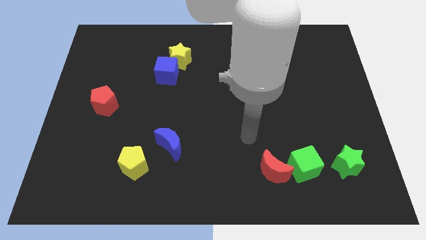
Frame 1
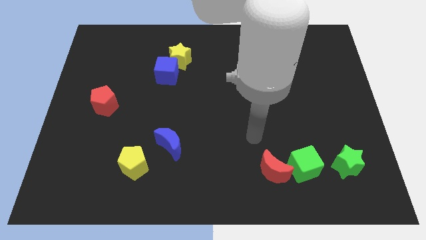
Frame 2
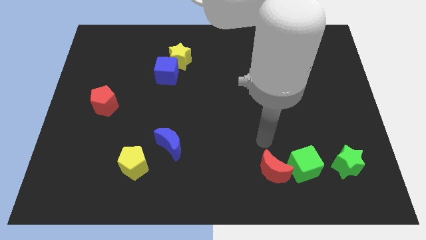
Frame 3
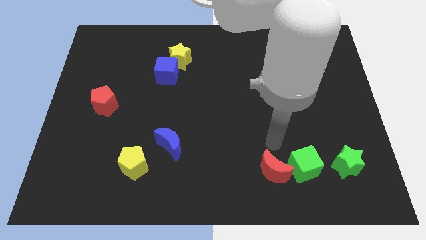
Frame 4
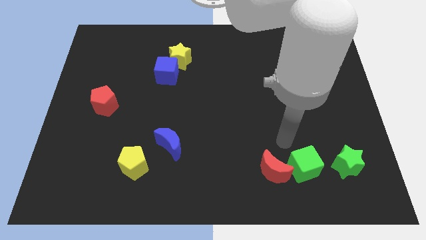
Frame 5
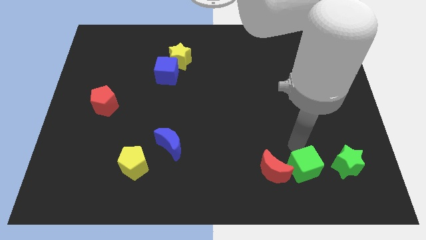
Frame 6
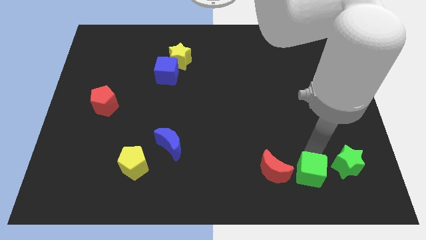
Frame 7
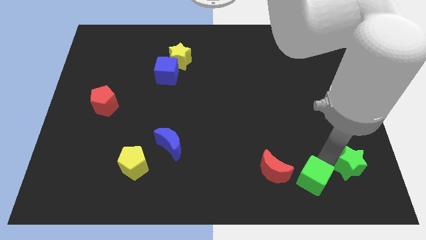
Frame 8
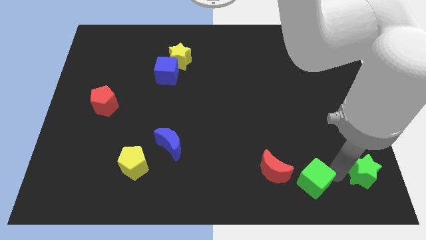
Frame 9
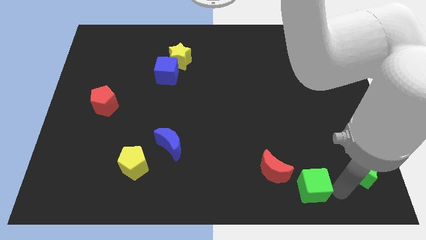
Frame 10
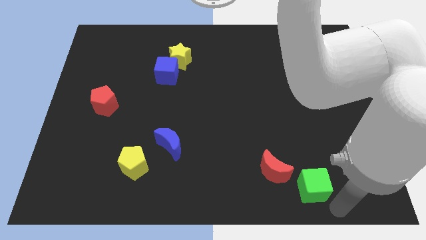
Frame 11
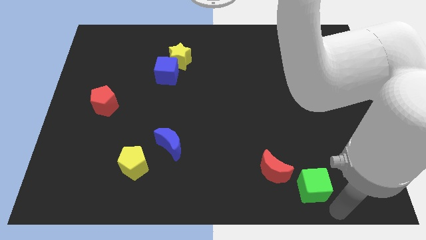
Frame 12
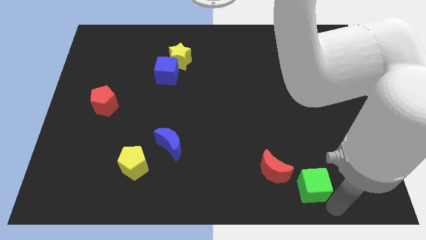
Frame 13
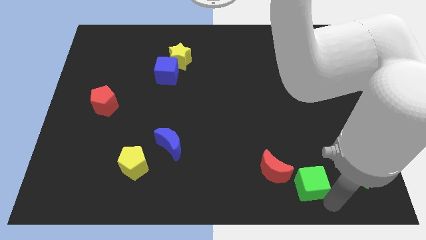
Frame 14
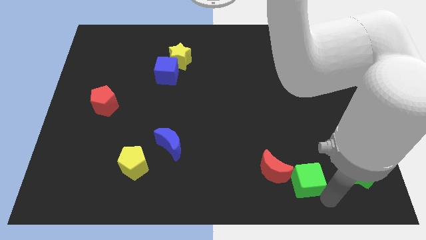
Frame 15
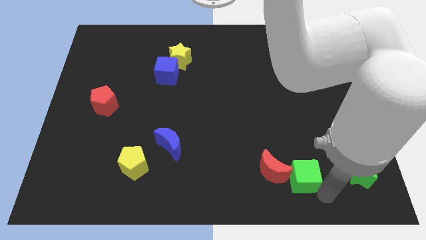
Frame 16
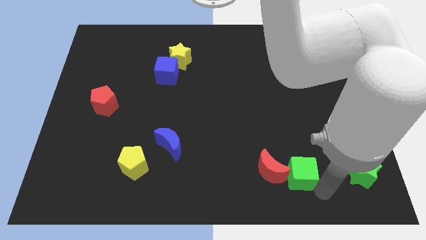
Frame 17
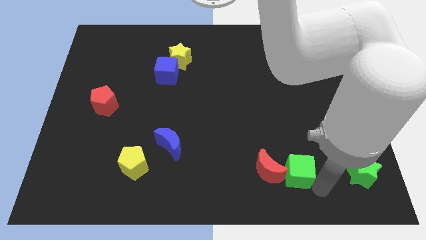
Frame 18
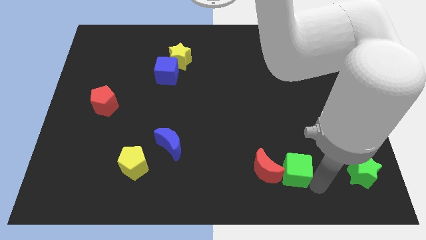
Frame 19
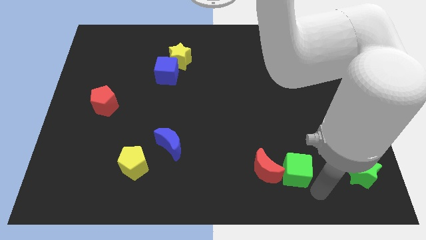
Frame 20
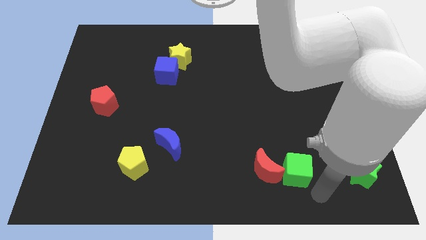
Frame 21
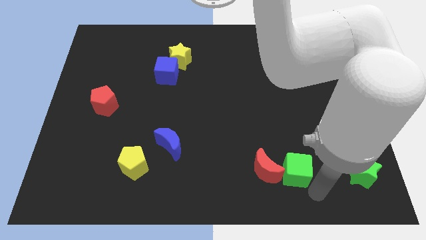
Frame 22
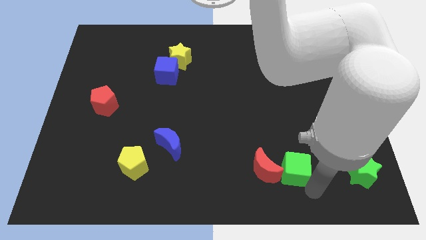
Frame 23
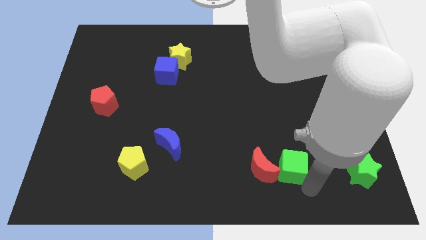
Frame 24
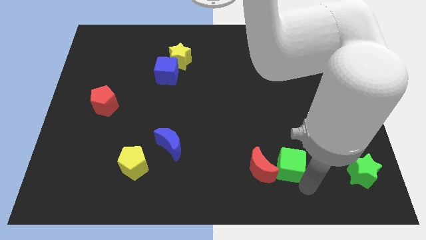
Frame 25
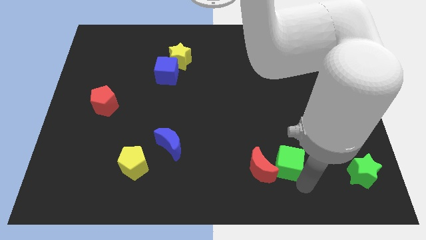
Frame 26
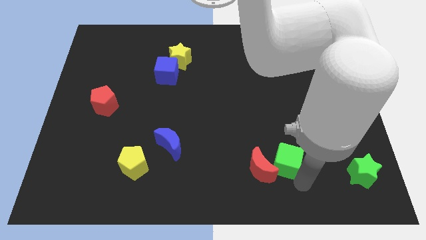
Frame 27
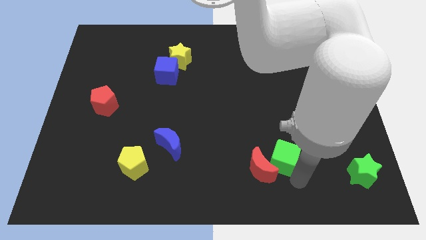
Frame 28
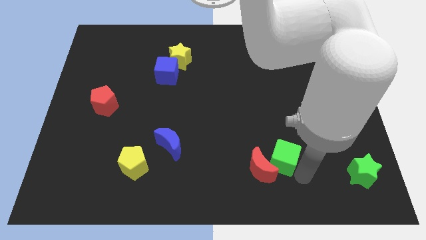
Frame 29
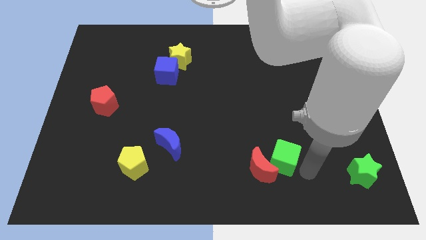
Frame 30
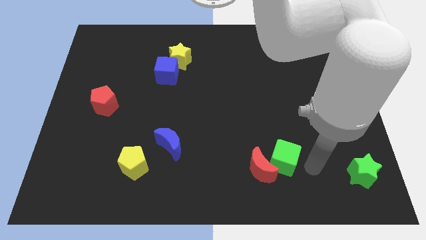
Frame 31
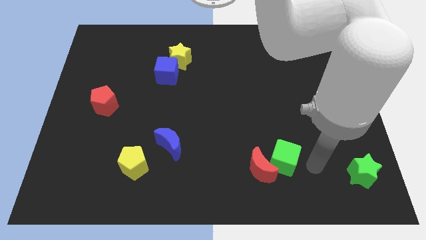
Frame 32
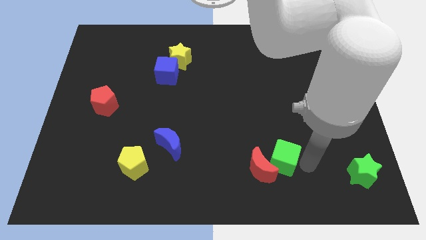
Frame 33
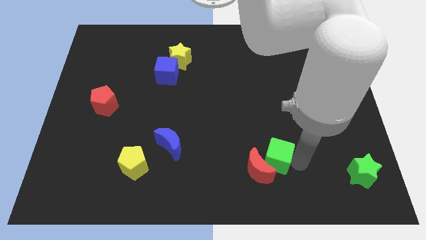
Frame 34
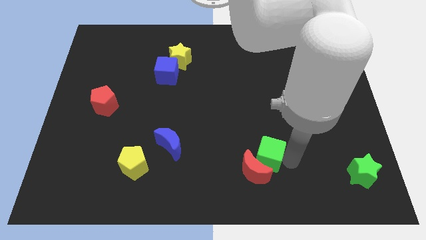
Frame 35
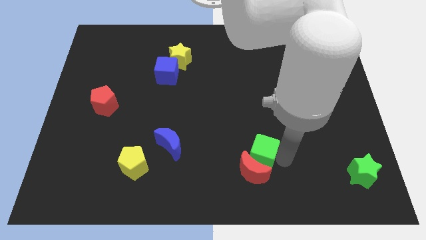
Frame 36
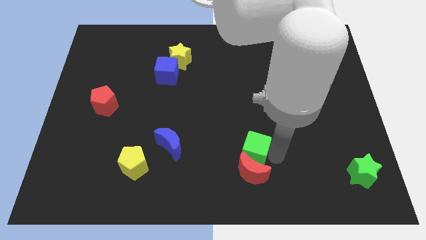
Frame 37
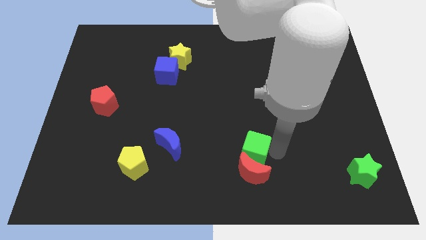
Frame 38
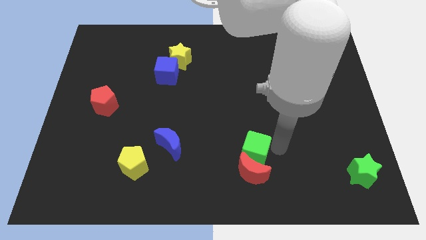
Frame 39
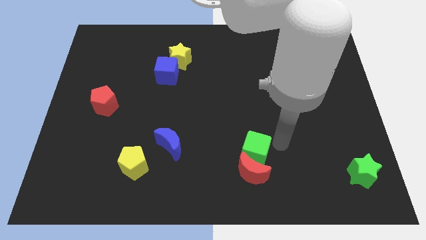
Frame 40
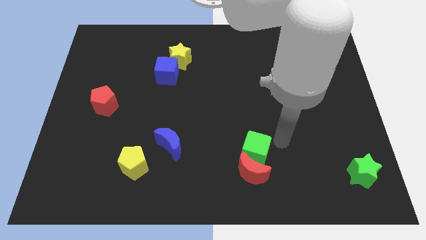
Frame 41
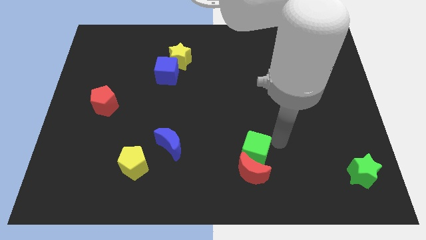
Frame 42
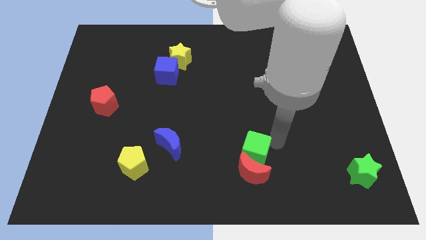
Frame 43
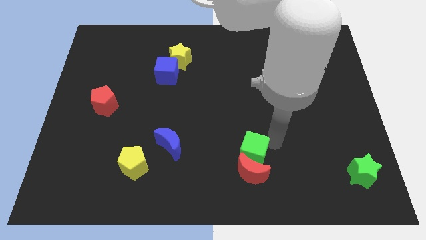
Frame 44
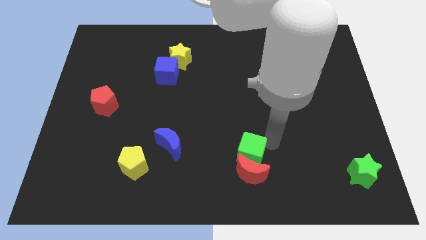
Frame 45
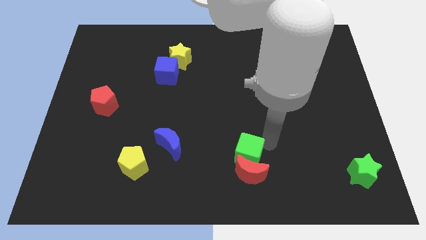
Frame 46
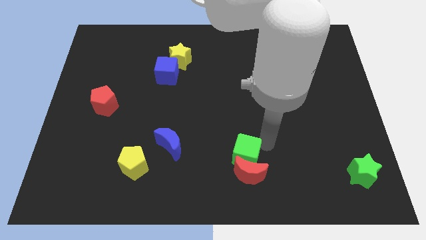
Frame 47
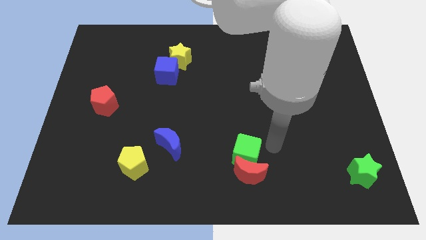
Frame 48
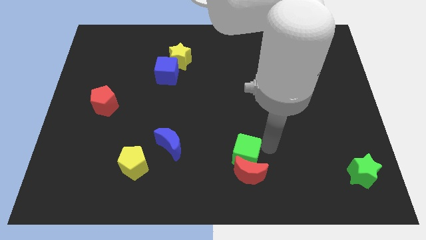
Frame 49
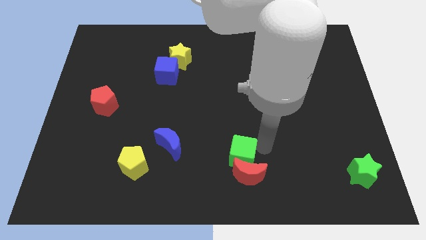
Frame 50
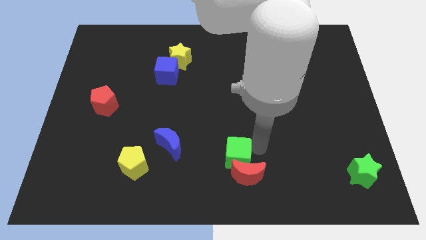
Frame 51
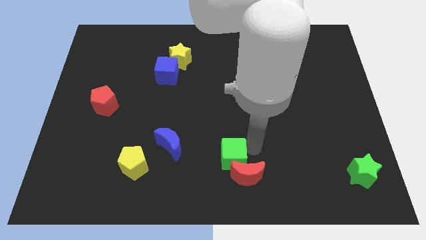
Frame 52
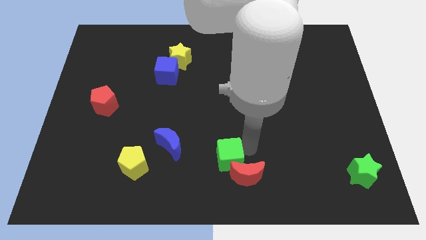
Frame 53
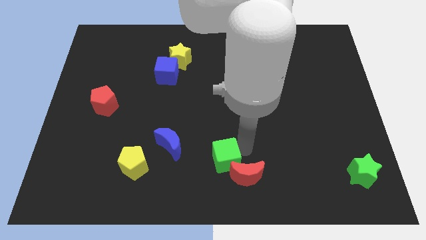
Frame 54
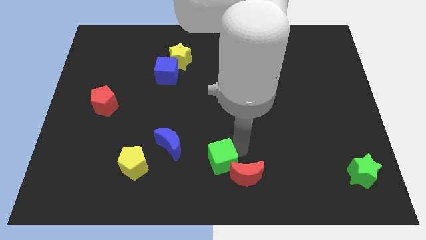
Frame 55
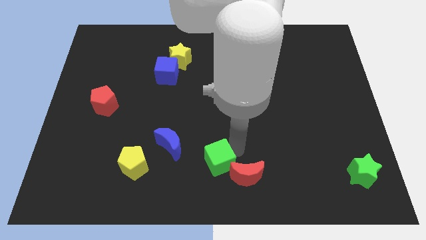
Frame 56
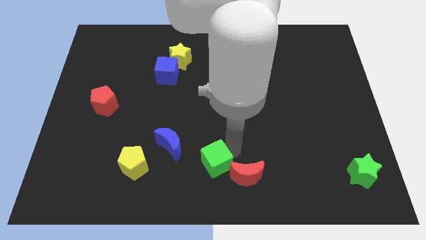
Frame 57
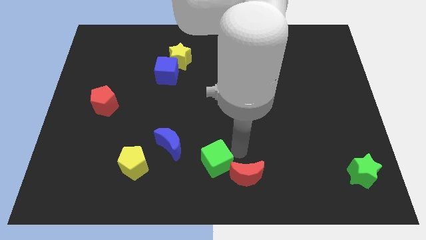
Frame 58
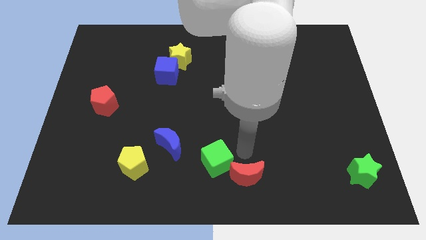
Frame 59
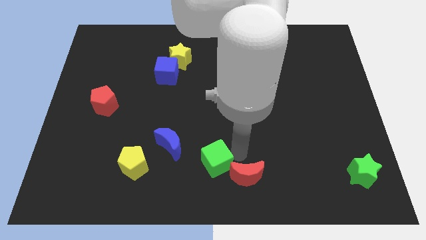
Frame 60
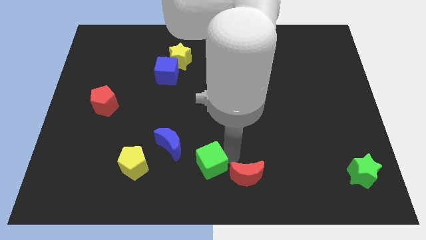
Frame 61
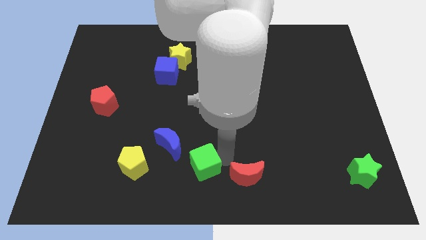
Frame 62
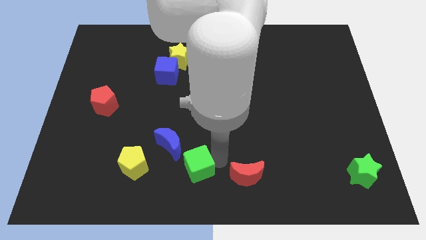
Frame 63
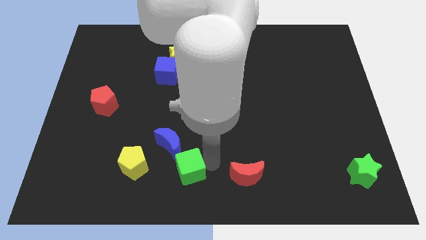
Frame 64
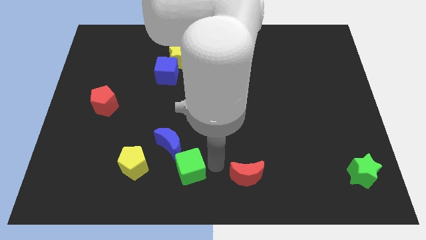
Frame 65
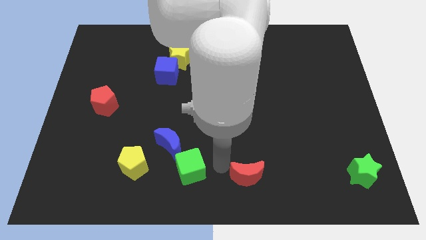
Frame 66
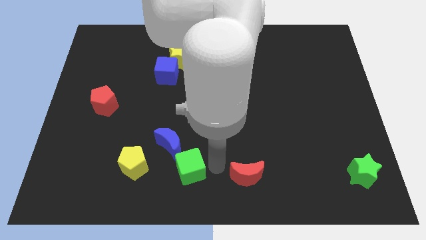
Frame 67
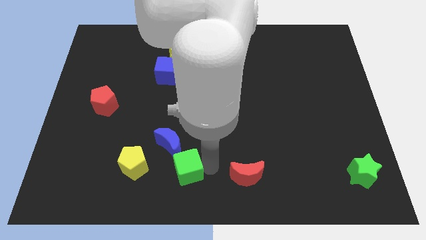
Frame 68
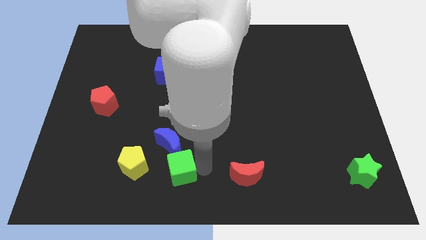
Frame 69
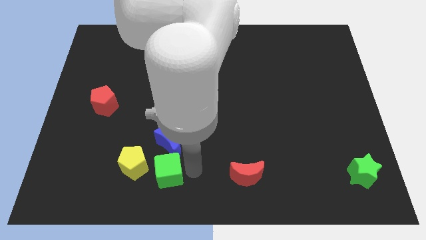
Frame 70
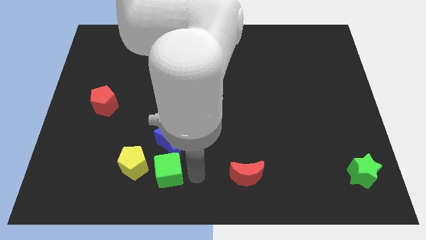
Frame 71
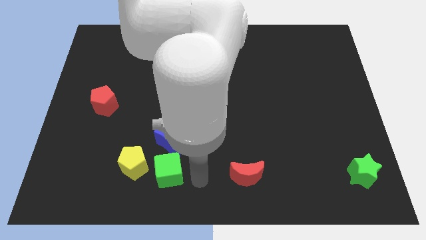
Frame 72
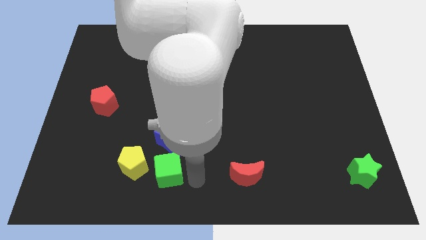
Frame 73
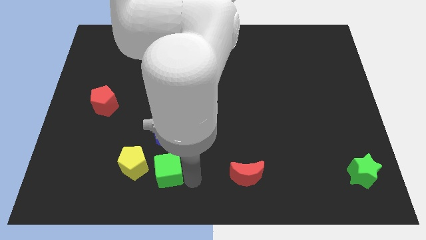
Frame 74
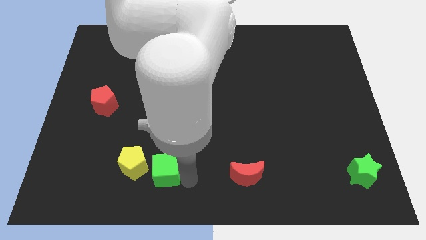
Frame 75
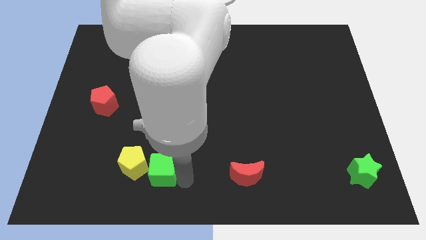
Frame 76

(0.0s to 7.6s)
slide the green cube next to the yellow pentagon

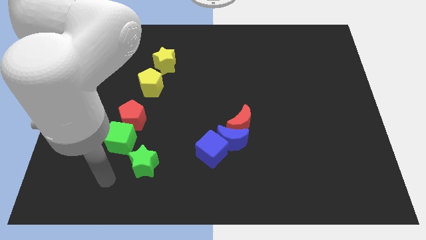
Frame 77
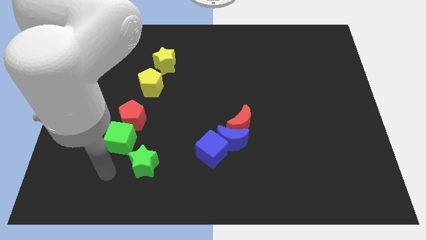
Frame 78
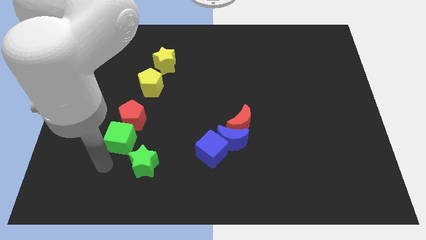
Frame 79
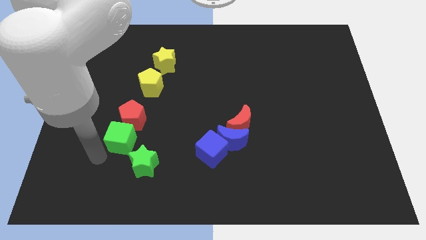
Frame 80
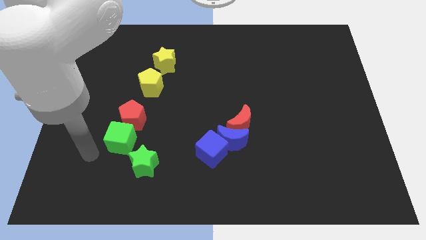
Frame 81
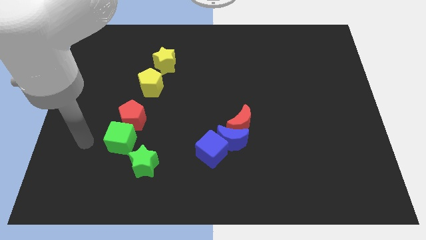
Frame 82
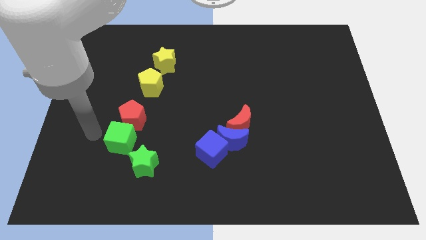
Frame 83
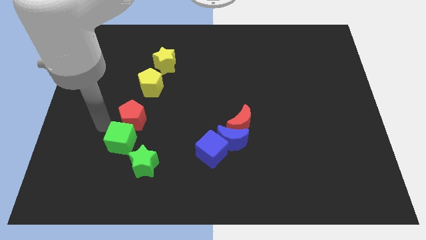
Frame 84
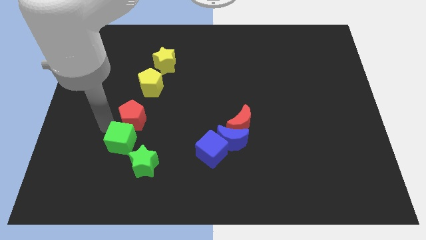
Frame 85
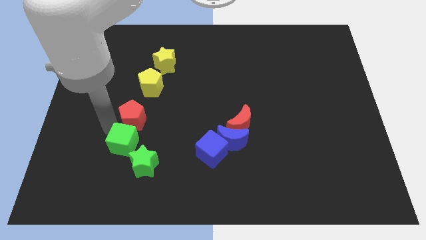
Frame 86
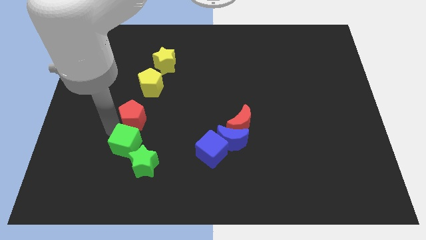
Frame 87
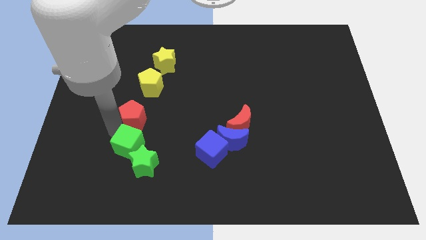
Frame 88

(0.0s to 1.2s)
slide the green cube to the green star
